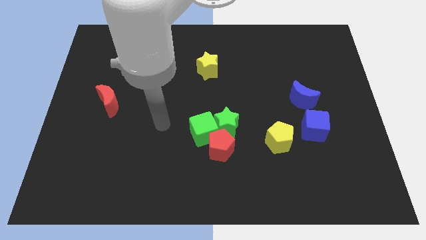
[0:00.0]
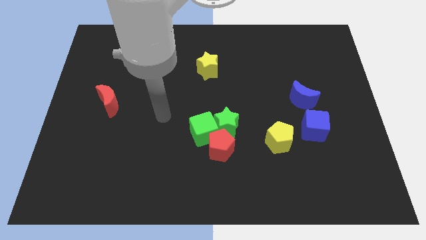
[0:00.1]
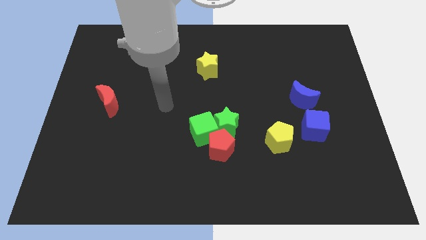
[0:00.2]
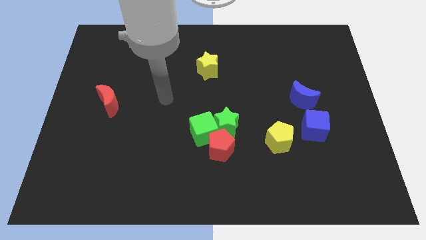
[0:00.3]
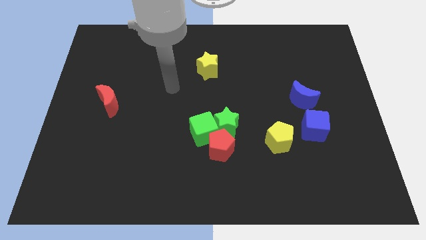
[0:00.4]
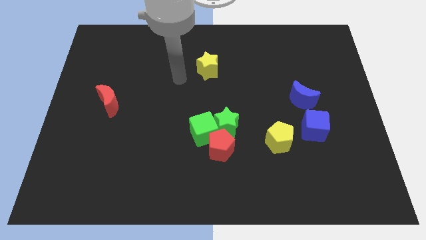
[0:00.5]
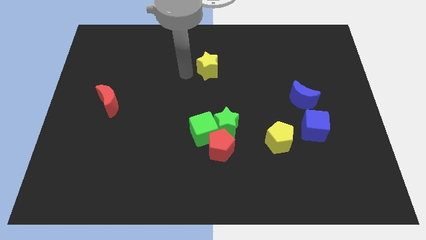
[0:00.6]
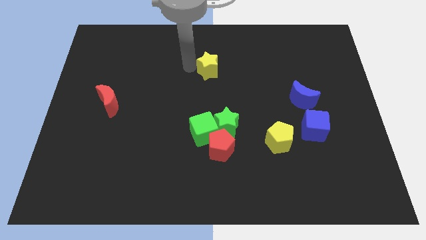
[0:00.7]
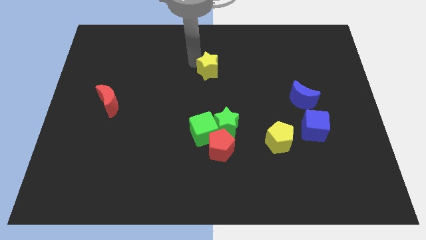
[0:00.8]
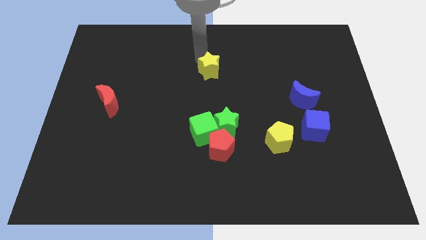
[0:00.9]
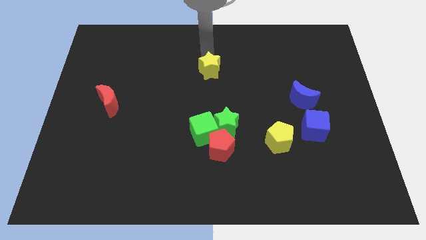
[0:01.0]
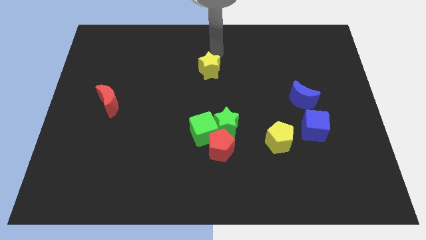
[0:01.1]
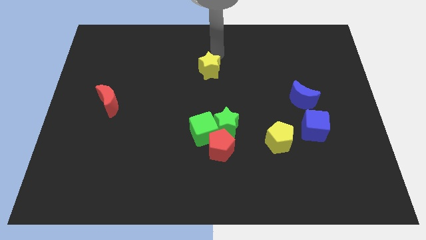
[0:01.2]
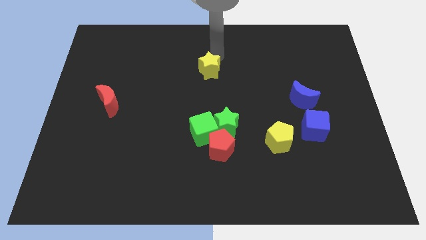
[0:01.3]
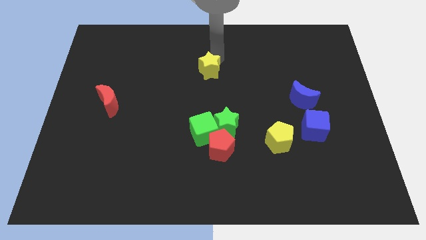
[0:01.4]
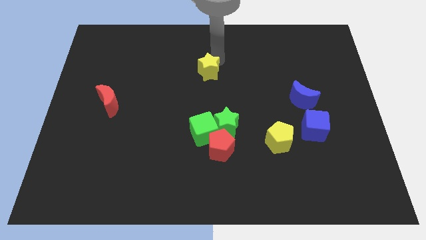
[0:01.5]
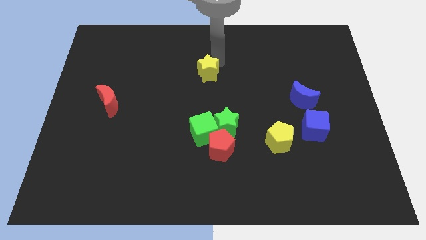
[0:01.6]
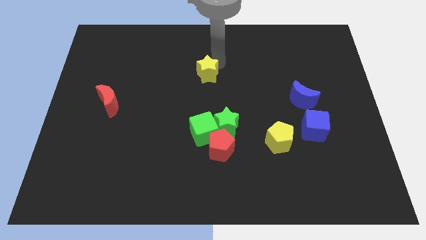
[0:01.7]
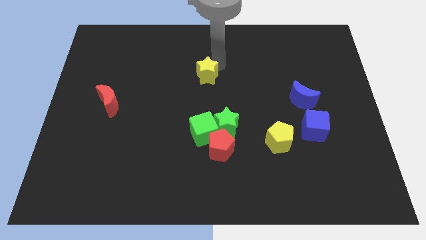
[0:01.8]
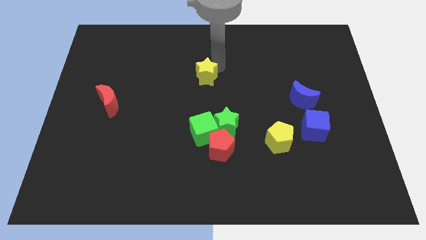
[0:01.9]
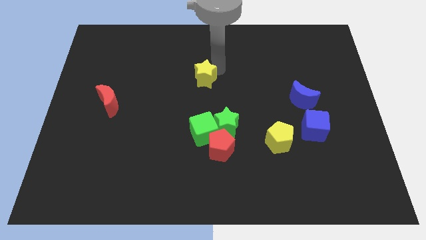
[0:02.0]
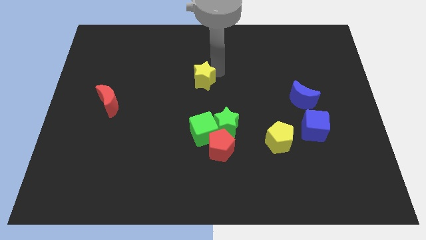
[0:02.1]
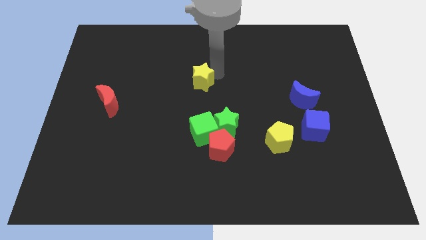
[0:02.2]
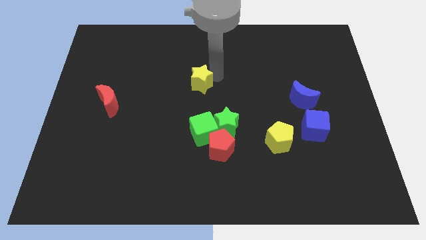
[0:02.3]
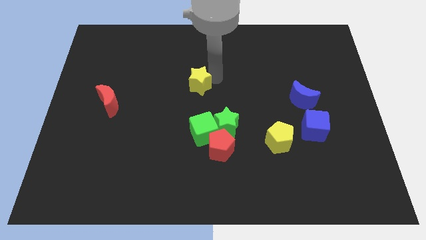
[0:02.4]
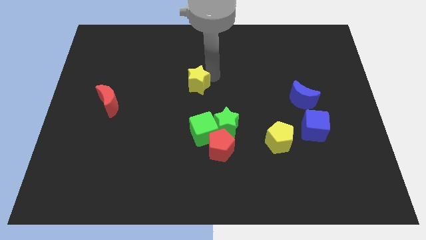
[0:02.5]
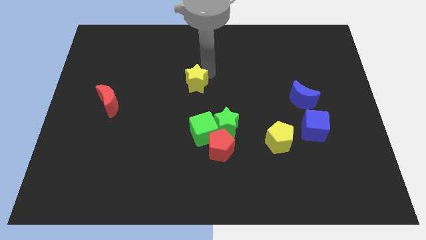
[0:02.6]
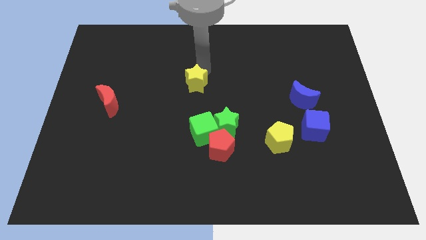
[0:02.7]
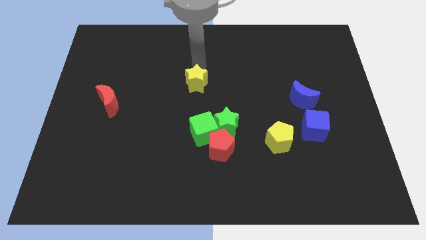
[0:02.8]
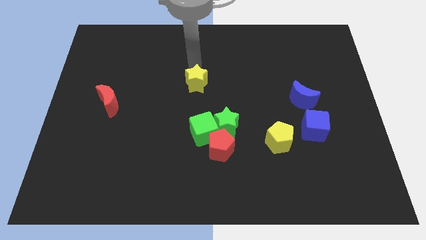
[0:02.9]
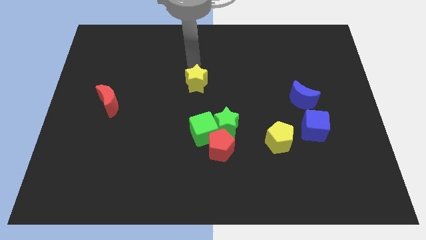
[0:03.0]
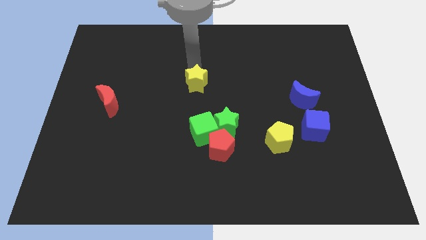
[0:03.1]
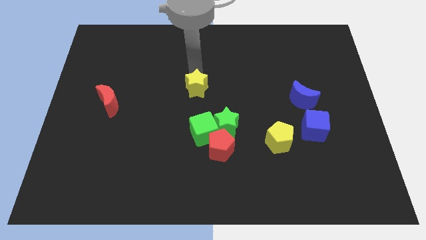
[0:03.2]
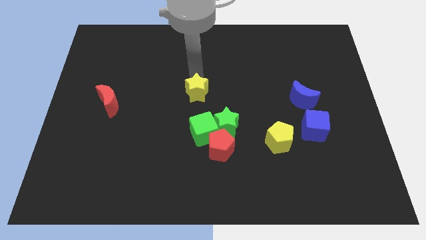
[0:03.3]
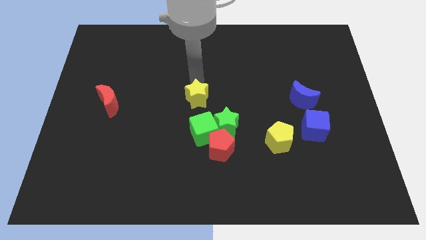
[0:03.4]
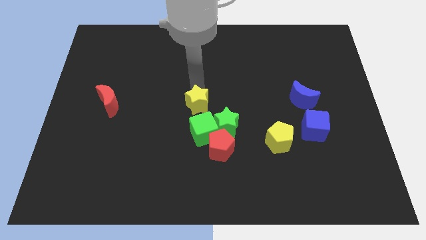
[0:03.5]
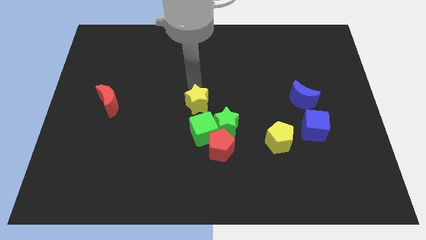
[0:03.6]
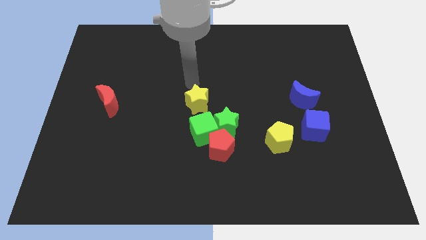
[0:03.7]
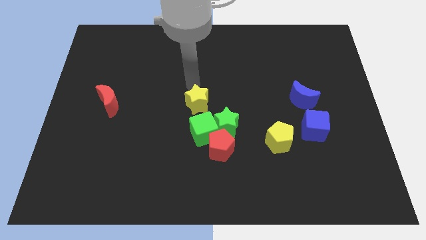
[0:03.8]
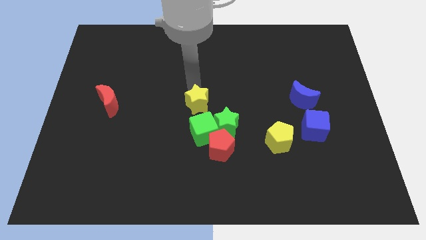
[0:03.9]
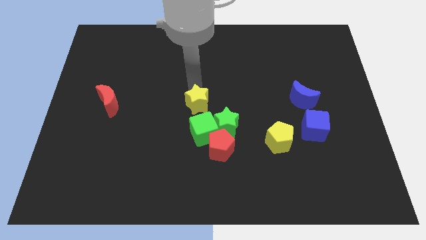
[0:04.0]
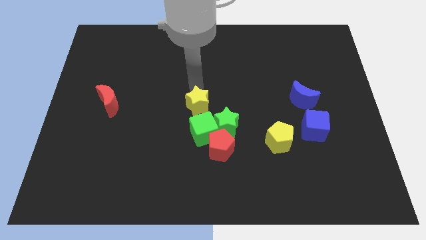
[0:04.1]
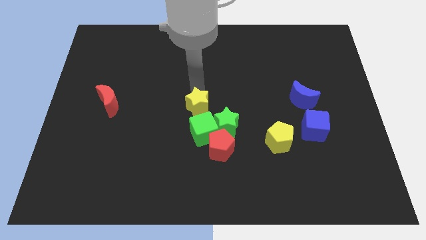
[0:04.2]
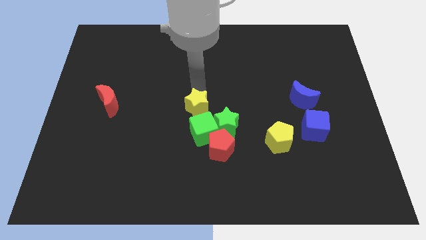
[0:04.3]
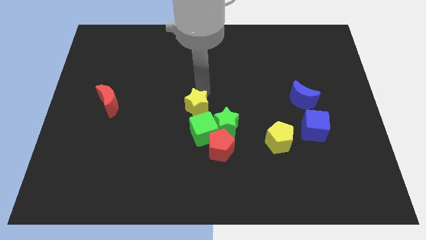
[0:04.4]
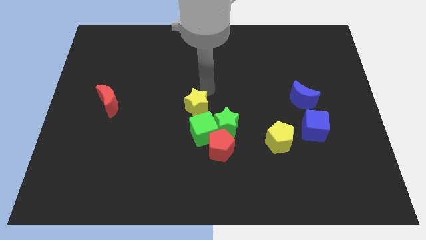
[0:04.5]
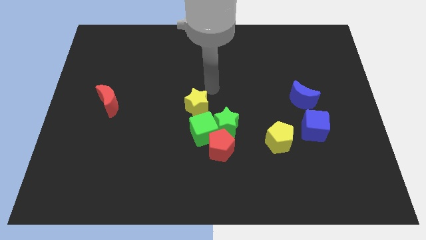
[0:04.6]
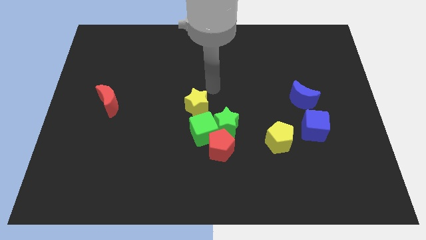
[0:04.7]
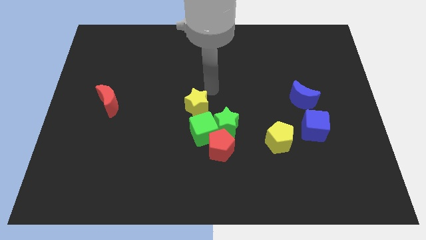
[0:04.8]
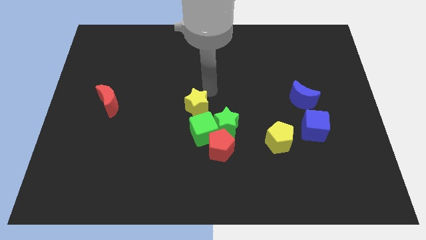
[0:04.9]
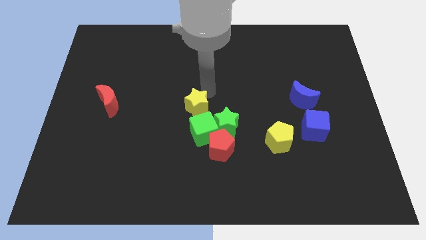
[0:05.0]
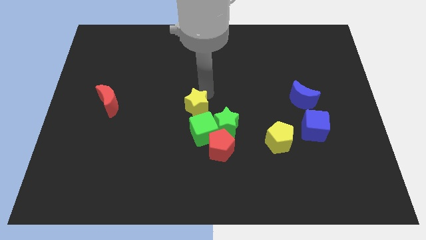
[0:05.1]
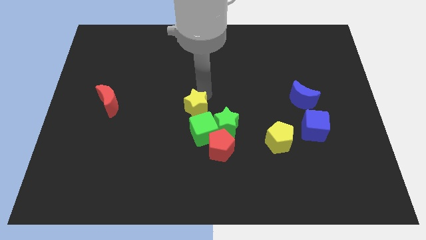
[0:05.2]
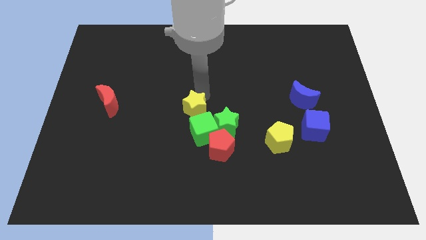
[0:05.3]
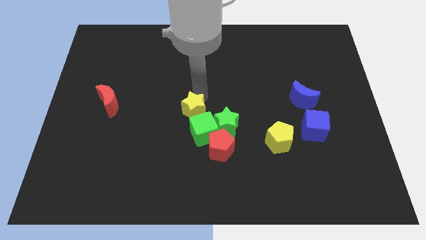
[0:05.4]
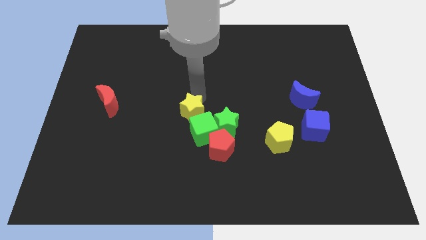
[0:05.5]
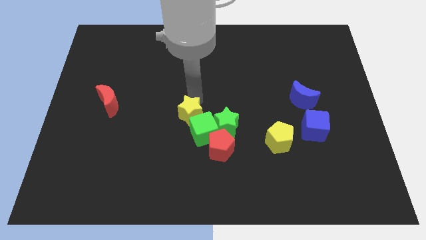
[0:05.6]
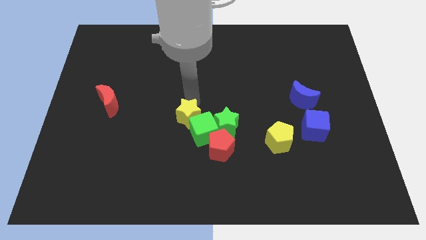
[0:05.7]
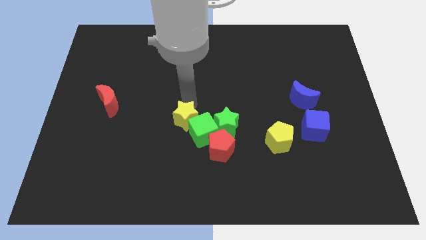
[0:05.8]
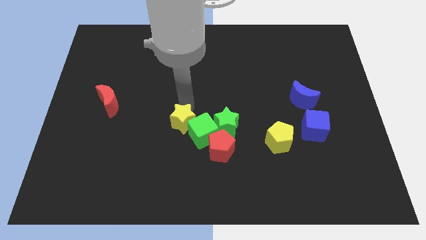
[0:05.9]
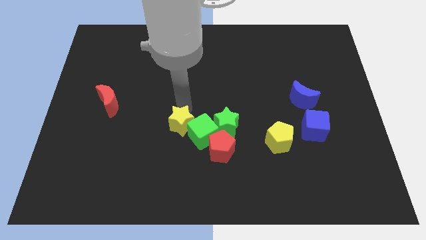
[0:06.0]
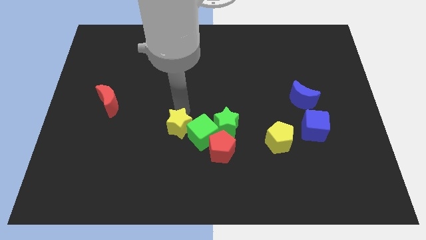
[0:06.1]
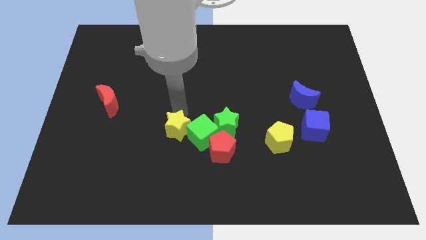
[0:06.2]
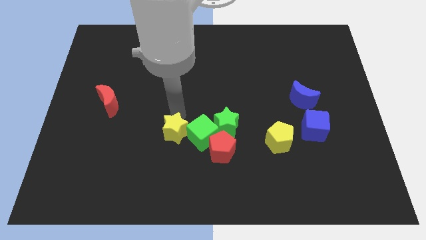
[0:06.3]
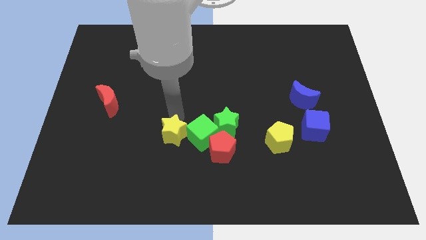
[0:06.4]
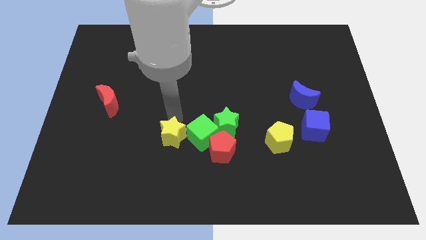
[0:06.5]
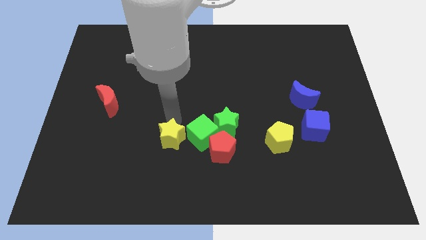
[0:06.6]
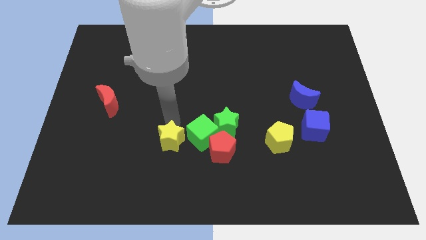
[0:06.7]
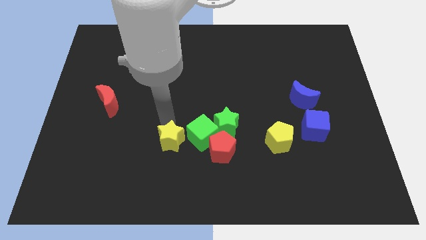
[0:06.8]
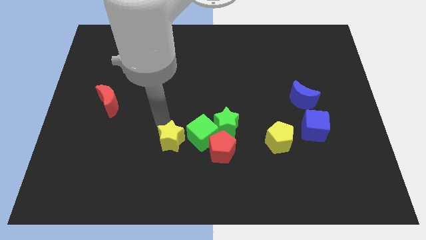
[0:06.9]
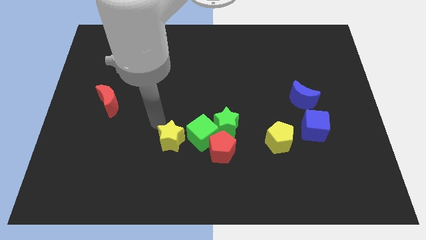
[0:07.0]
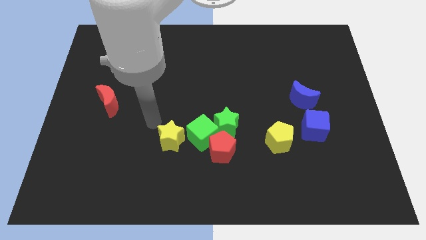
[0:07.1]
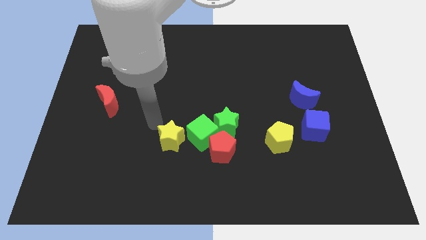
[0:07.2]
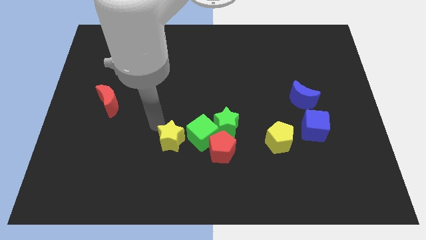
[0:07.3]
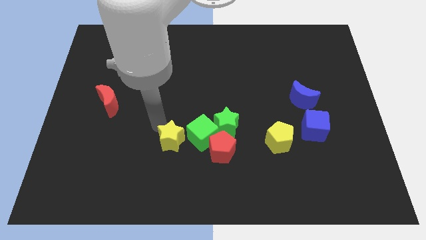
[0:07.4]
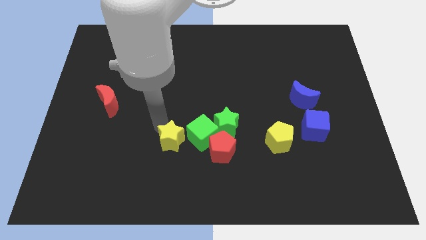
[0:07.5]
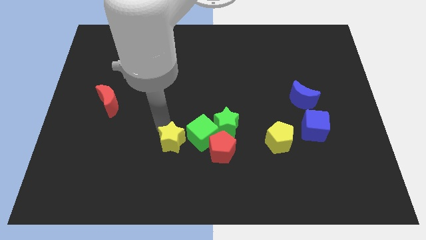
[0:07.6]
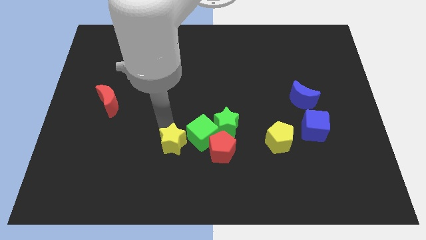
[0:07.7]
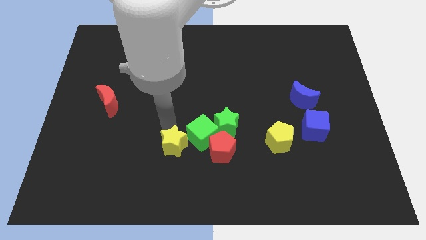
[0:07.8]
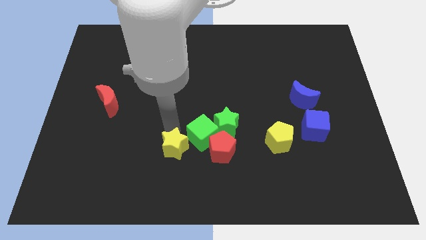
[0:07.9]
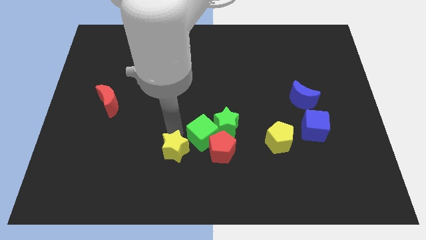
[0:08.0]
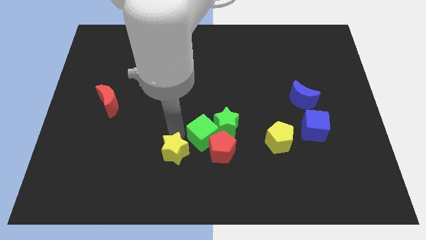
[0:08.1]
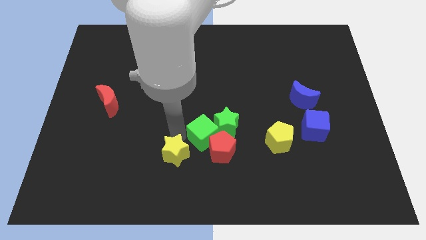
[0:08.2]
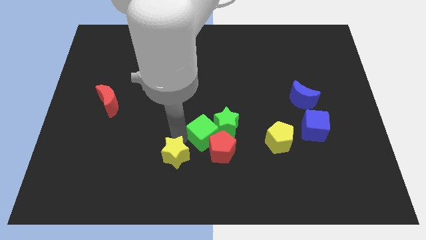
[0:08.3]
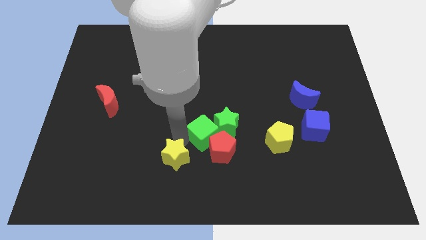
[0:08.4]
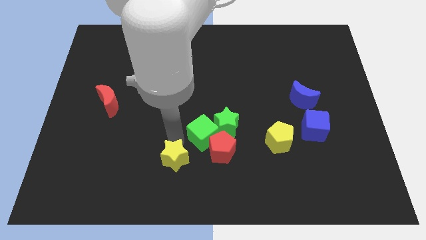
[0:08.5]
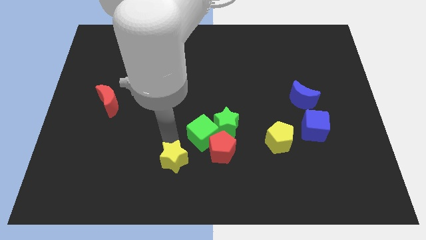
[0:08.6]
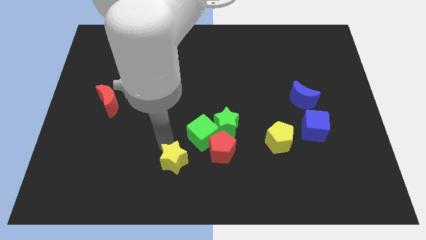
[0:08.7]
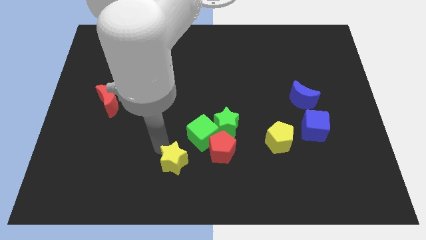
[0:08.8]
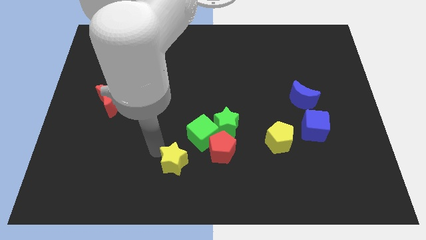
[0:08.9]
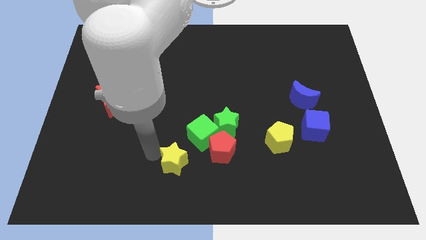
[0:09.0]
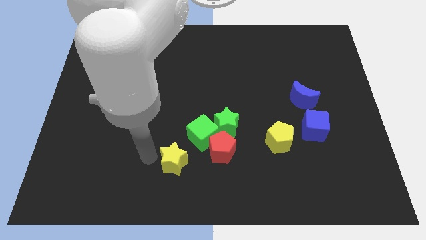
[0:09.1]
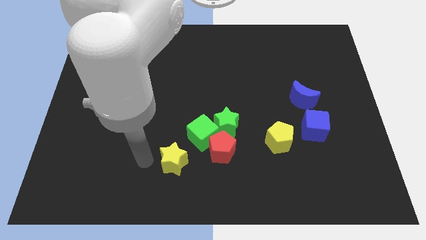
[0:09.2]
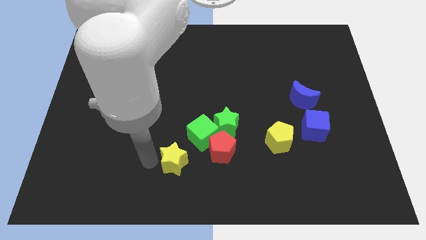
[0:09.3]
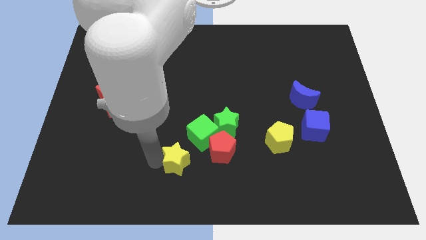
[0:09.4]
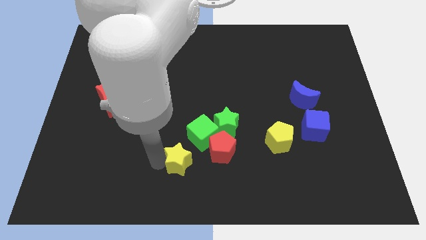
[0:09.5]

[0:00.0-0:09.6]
put the yellow star below the green cube
